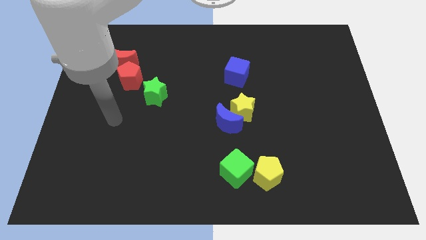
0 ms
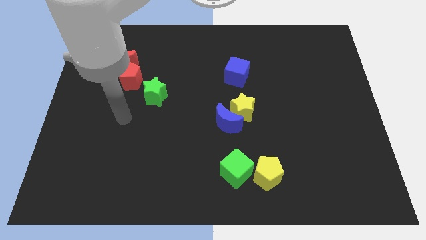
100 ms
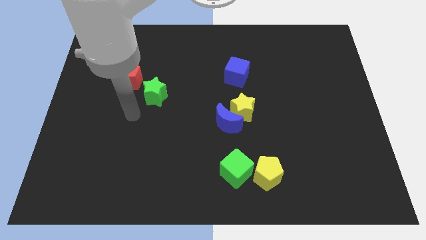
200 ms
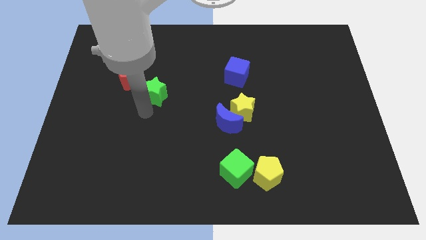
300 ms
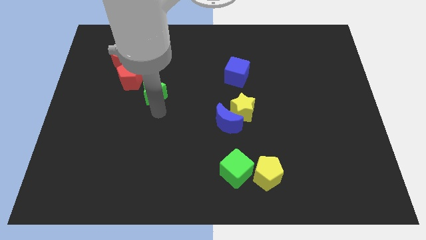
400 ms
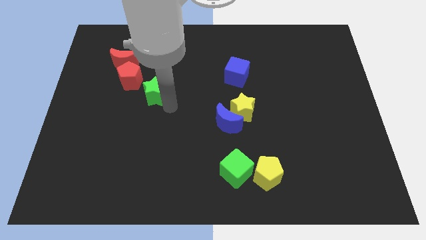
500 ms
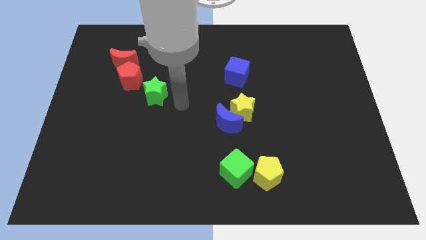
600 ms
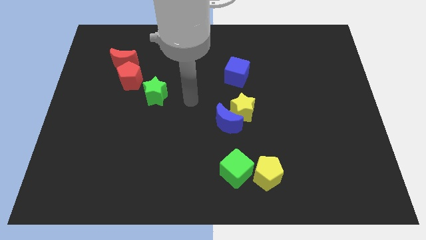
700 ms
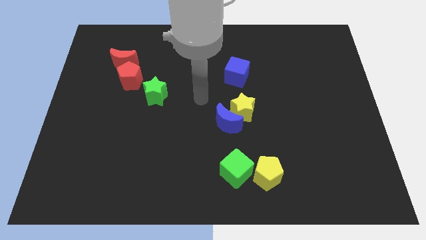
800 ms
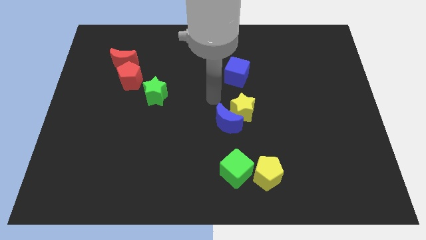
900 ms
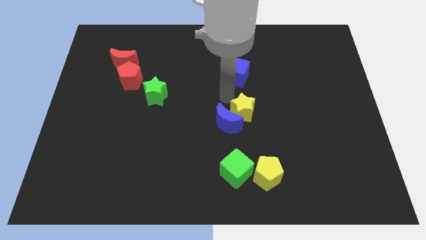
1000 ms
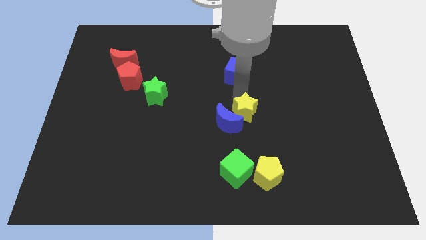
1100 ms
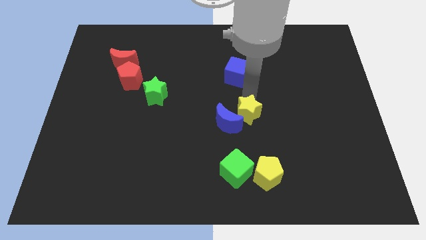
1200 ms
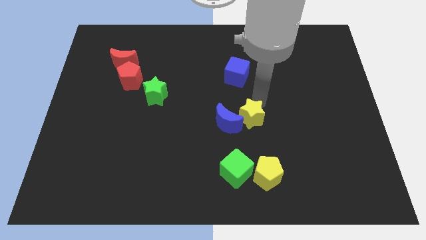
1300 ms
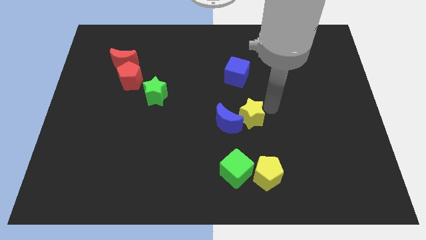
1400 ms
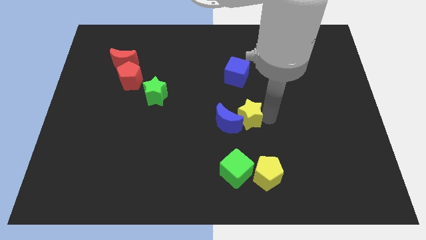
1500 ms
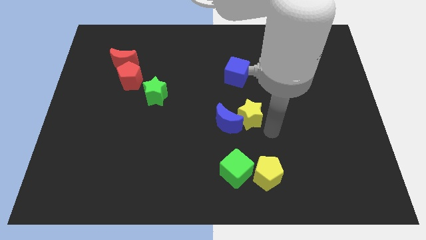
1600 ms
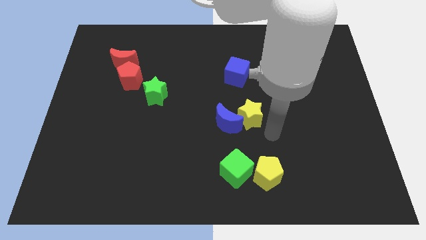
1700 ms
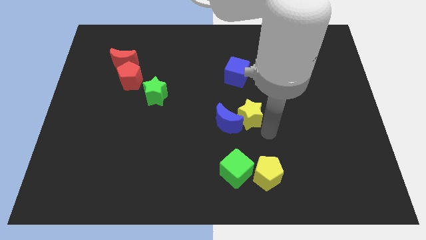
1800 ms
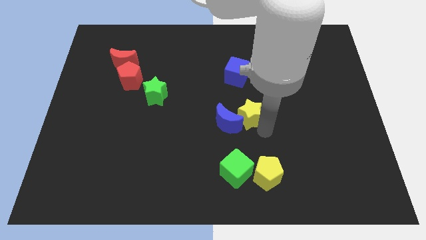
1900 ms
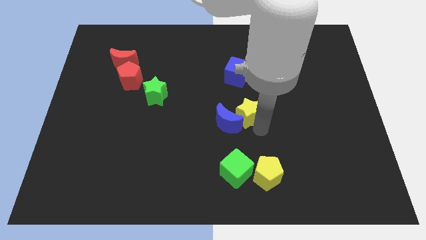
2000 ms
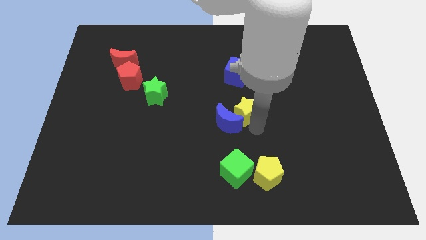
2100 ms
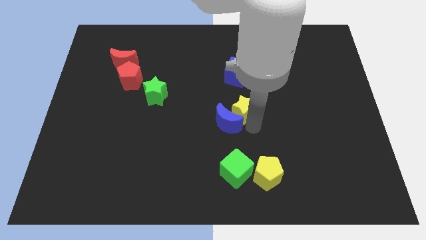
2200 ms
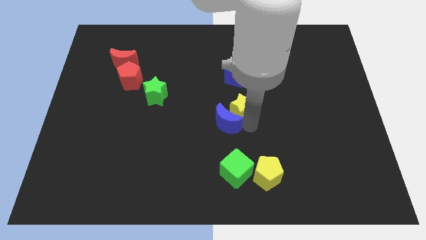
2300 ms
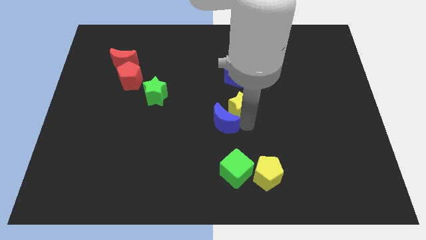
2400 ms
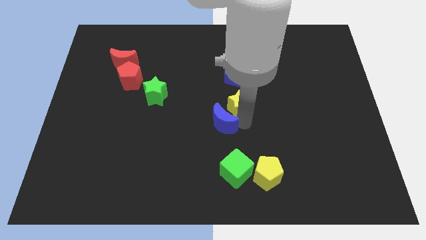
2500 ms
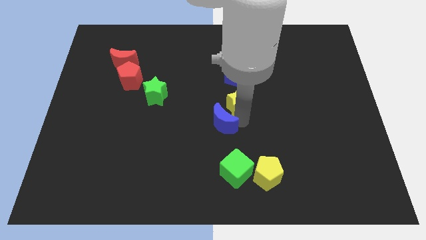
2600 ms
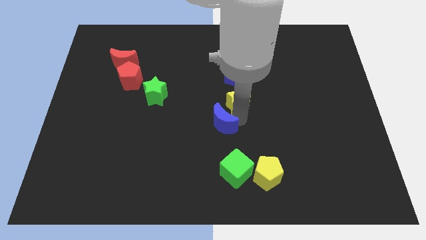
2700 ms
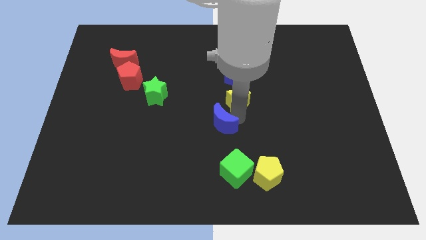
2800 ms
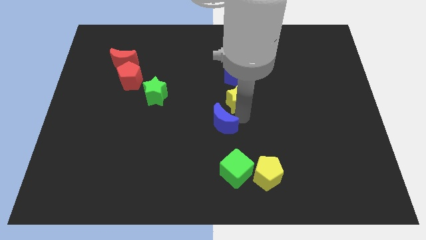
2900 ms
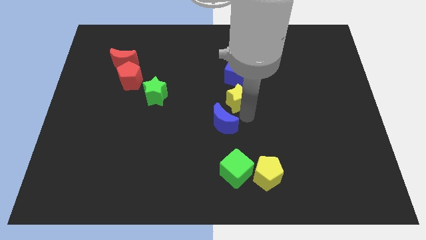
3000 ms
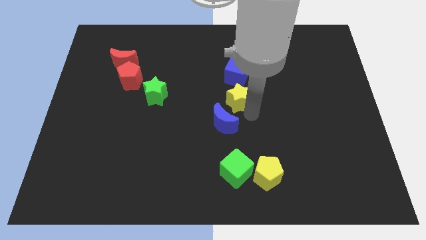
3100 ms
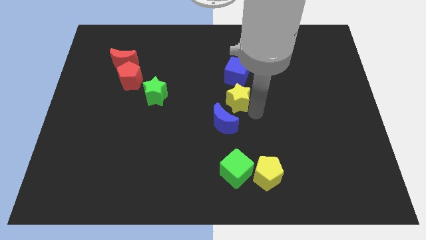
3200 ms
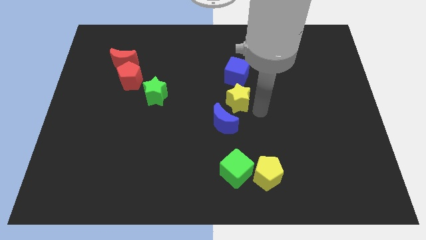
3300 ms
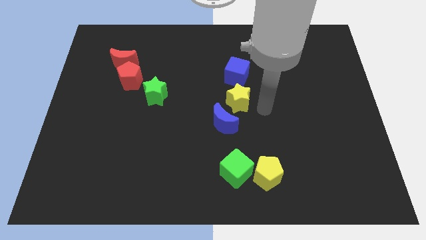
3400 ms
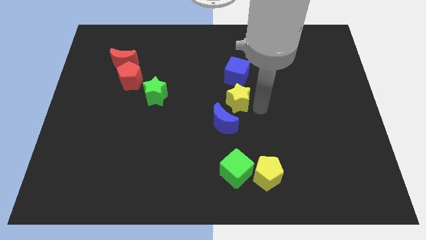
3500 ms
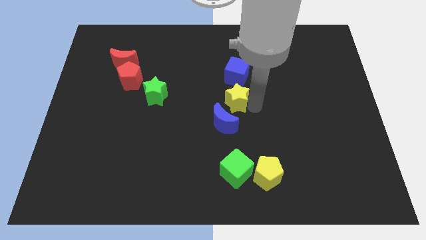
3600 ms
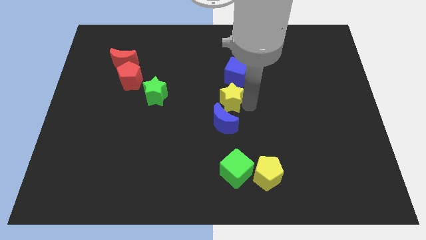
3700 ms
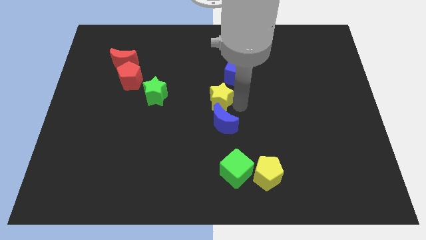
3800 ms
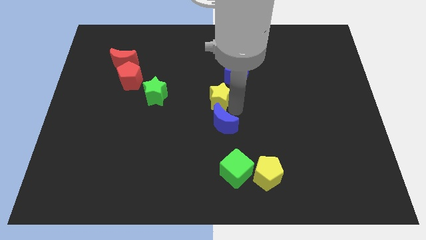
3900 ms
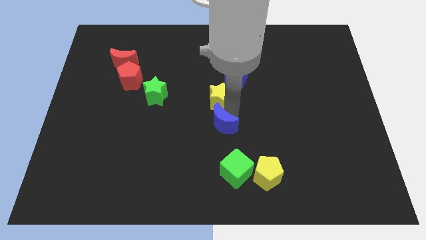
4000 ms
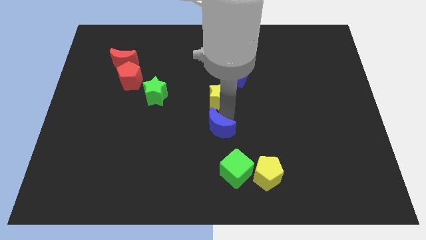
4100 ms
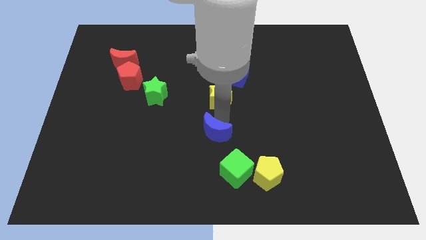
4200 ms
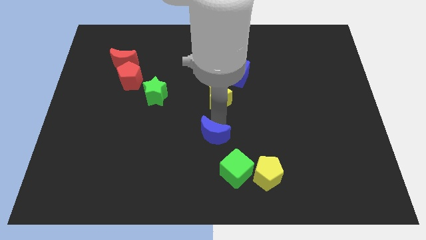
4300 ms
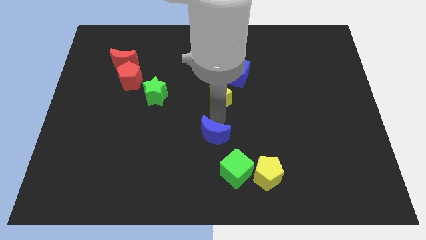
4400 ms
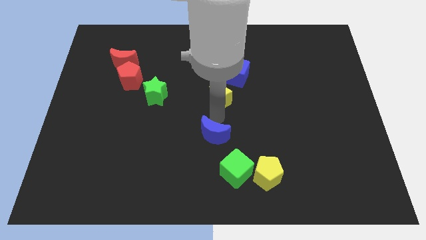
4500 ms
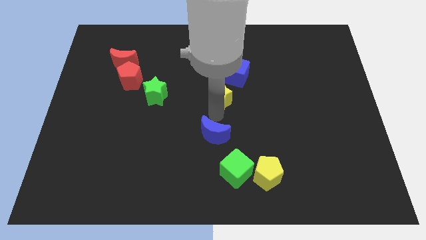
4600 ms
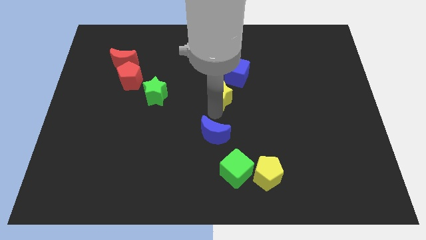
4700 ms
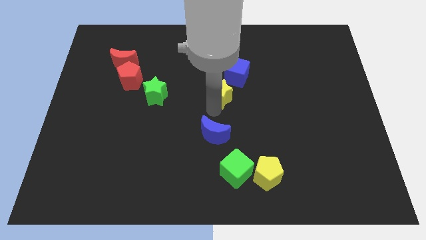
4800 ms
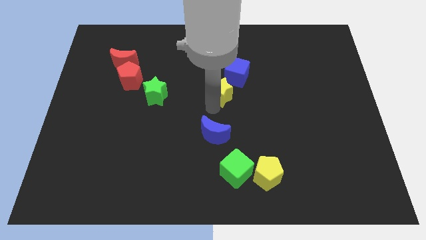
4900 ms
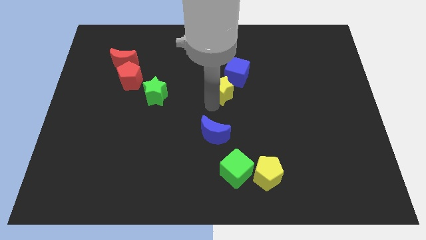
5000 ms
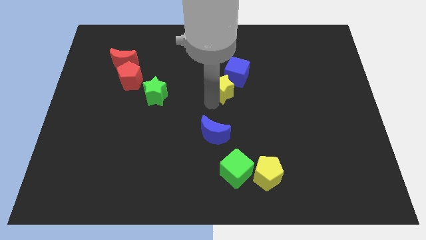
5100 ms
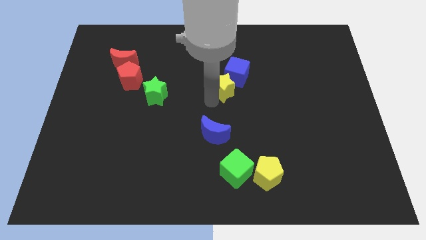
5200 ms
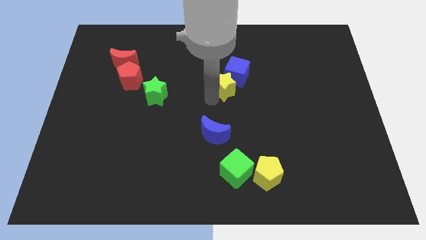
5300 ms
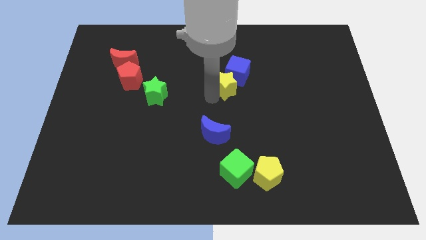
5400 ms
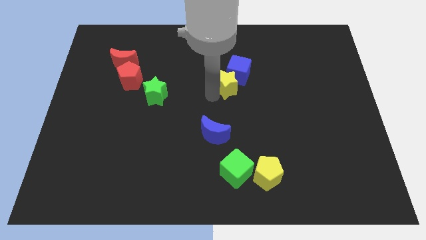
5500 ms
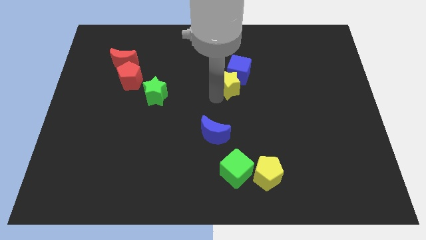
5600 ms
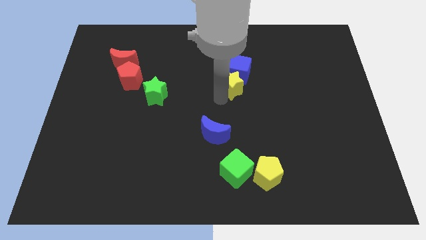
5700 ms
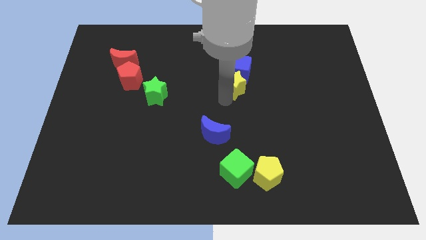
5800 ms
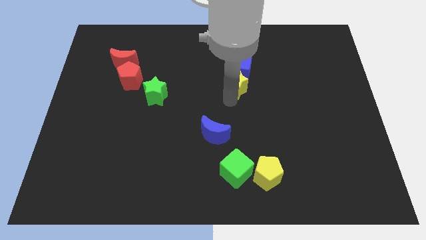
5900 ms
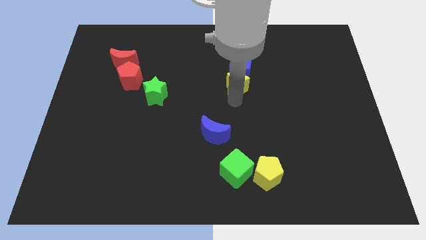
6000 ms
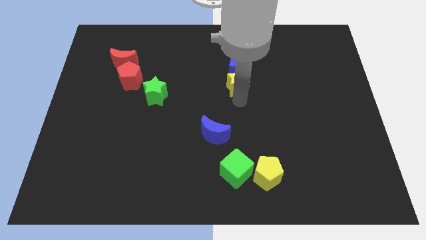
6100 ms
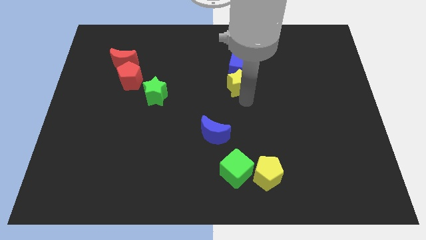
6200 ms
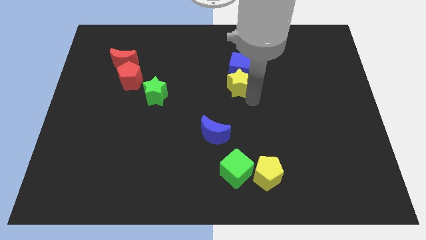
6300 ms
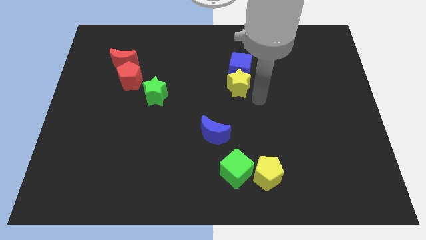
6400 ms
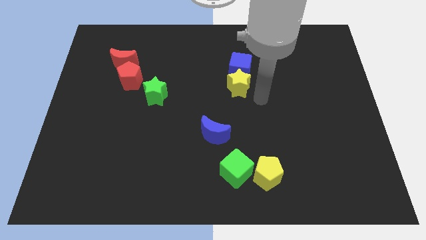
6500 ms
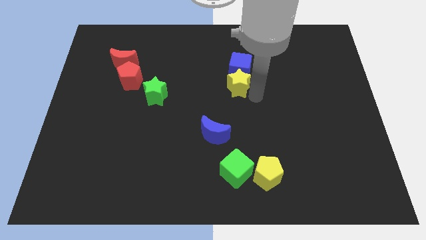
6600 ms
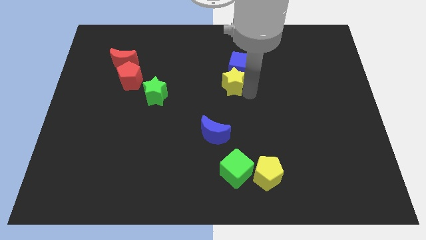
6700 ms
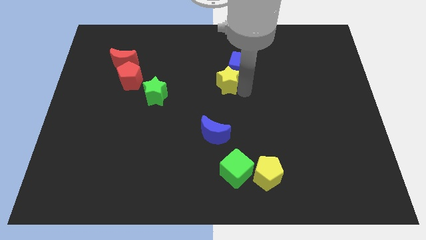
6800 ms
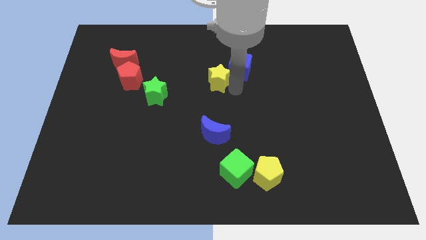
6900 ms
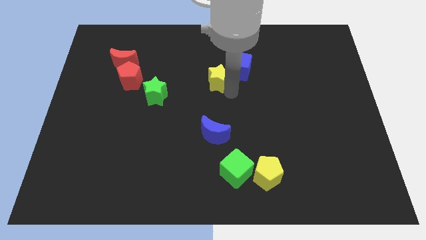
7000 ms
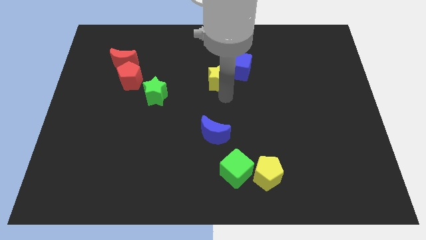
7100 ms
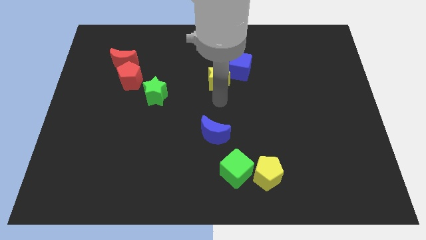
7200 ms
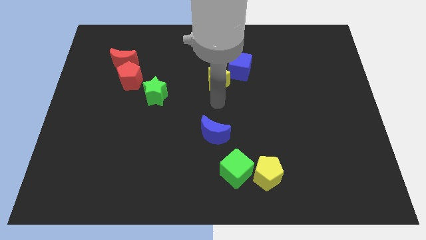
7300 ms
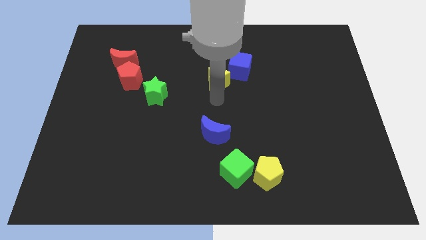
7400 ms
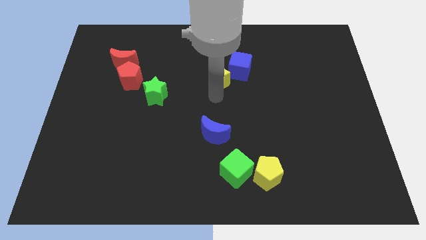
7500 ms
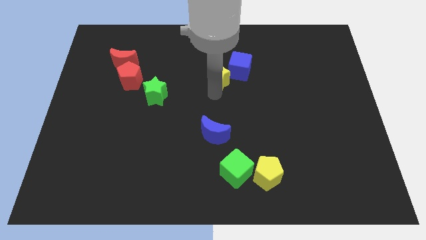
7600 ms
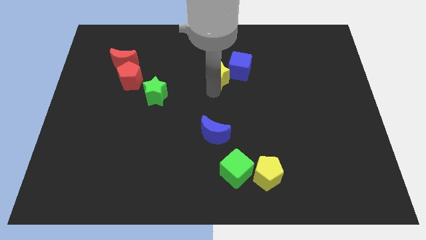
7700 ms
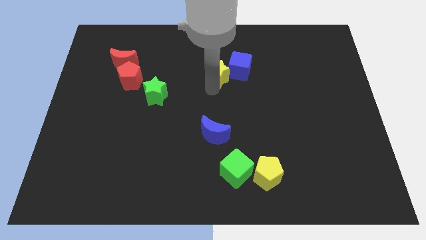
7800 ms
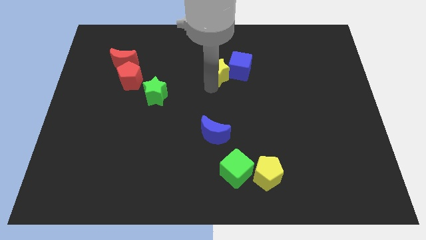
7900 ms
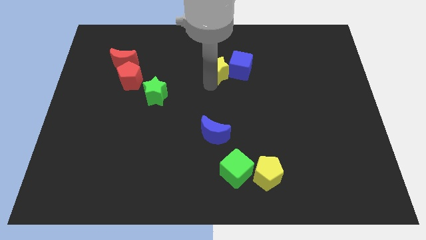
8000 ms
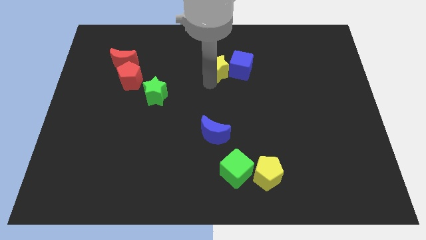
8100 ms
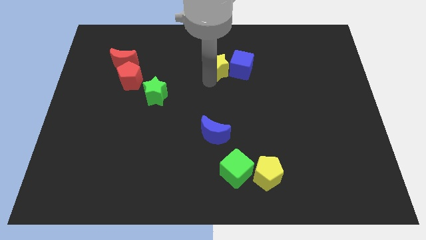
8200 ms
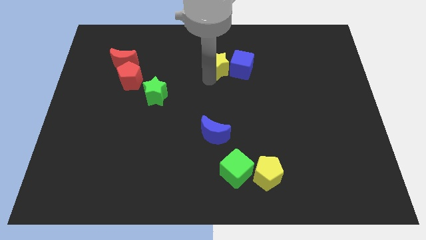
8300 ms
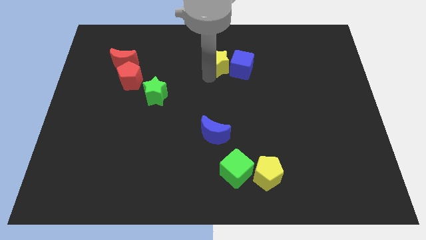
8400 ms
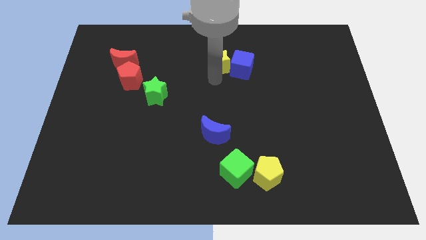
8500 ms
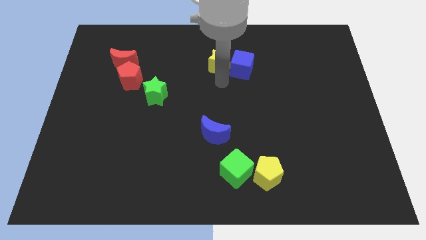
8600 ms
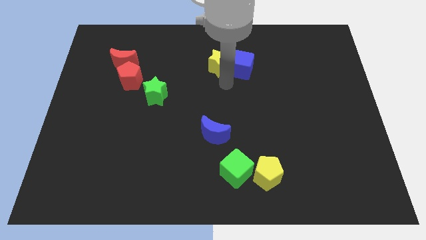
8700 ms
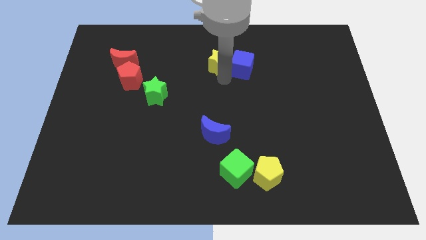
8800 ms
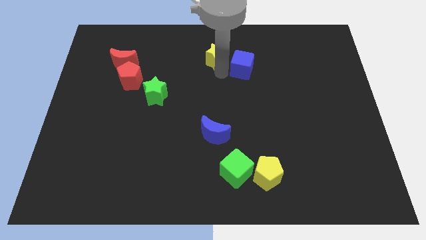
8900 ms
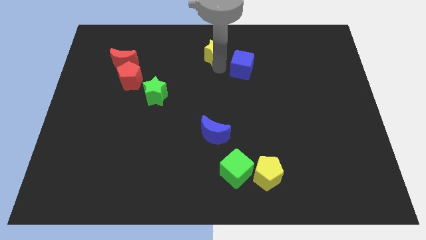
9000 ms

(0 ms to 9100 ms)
slide the yellow star to the top
